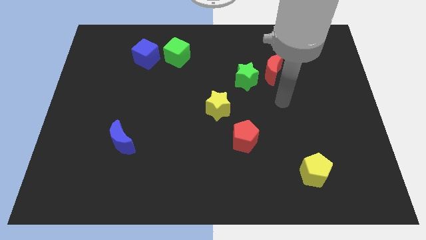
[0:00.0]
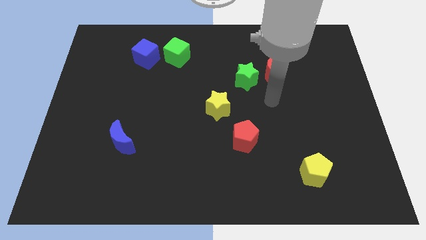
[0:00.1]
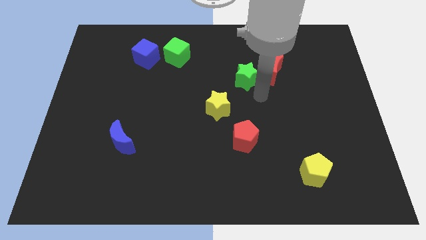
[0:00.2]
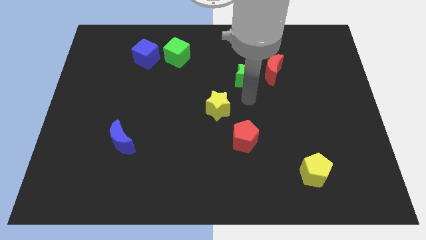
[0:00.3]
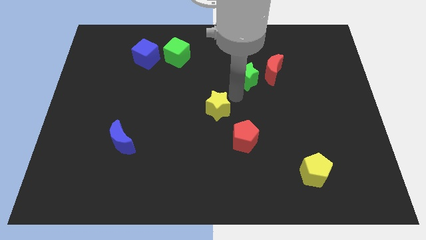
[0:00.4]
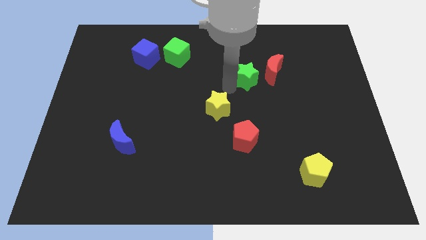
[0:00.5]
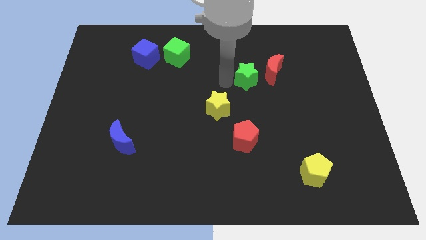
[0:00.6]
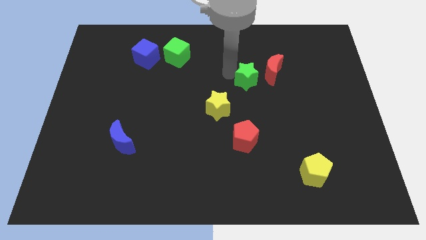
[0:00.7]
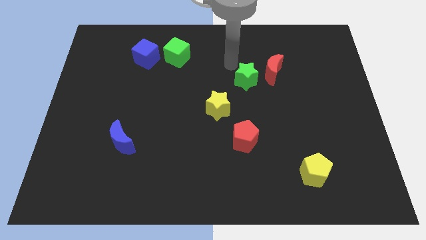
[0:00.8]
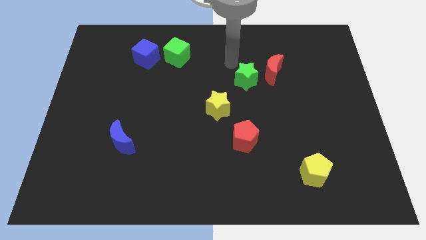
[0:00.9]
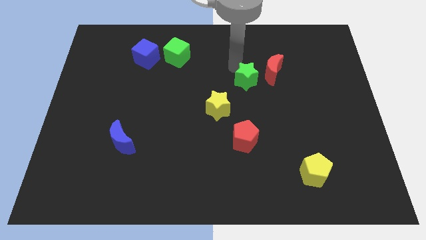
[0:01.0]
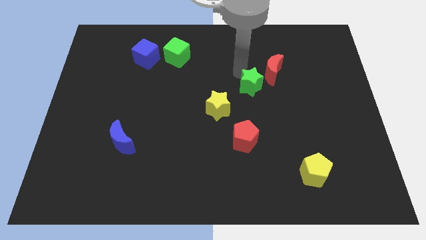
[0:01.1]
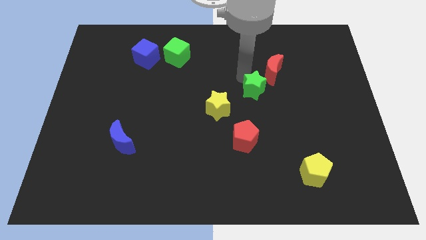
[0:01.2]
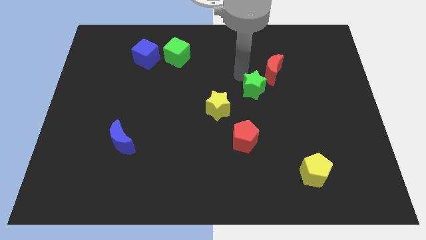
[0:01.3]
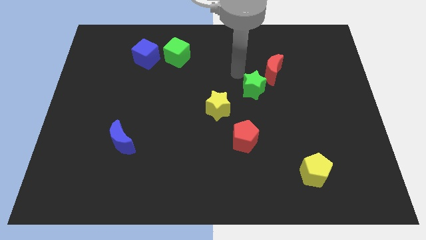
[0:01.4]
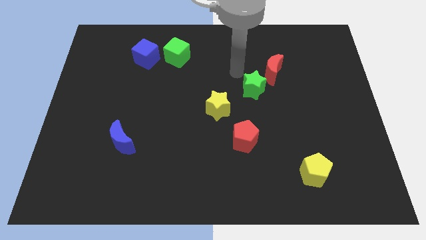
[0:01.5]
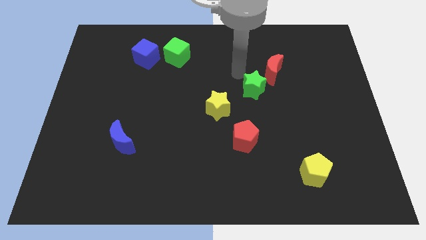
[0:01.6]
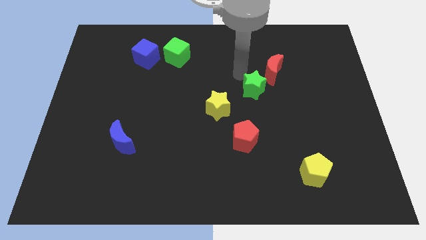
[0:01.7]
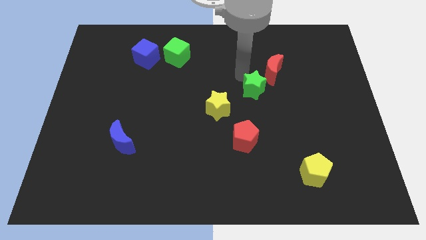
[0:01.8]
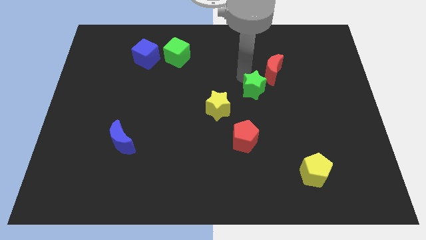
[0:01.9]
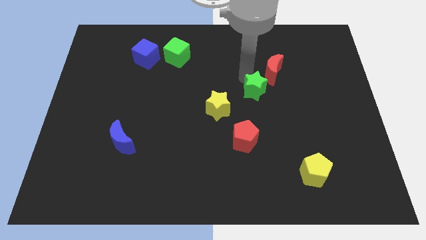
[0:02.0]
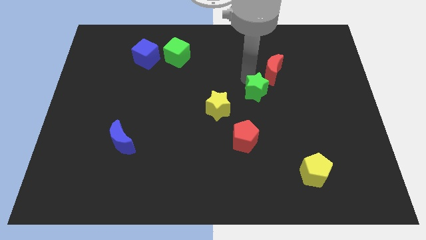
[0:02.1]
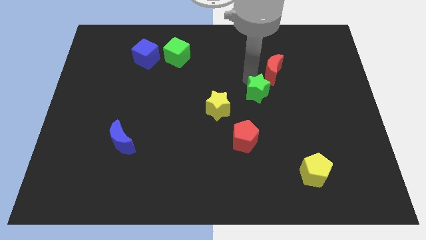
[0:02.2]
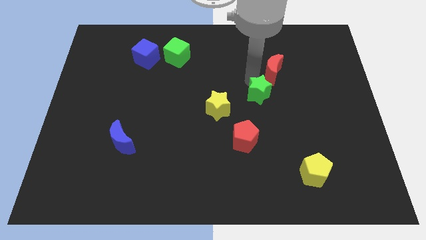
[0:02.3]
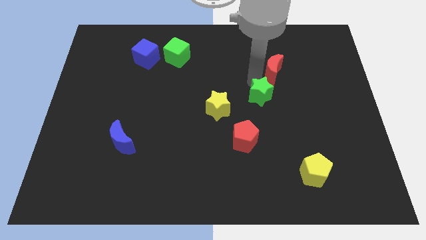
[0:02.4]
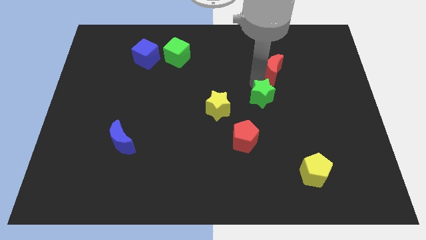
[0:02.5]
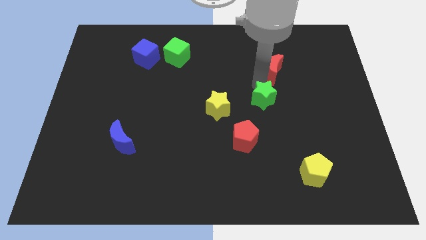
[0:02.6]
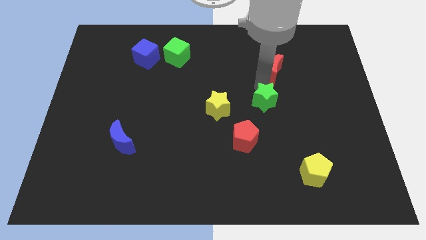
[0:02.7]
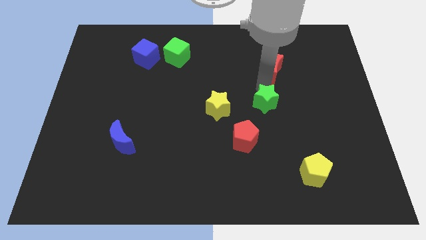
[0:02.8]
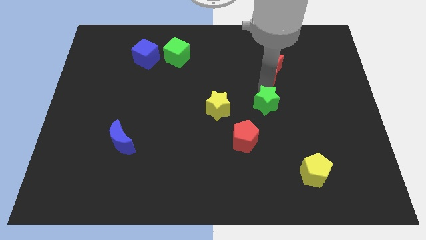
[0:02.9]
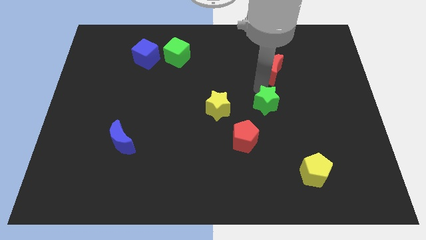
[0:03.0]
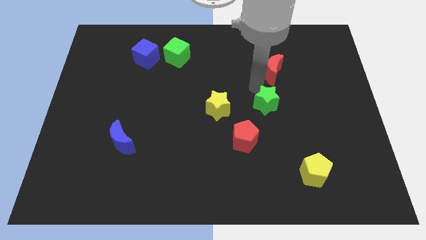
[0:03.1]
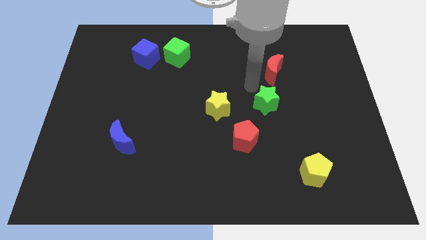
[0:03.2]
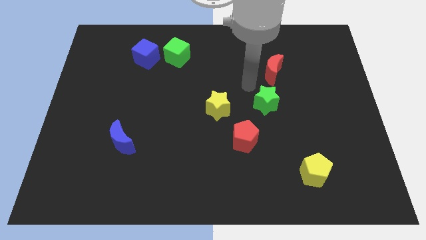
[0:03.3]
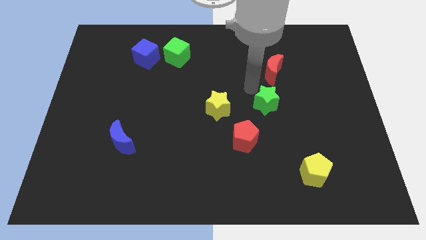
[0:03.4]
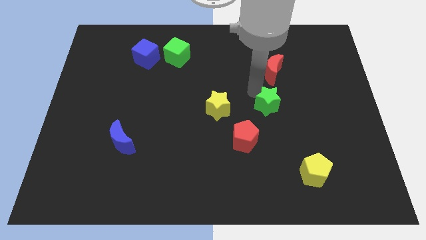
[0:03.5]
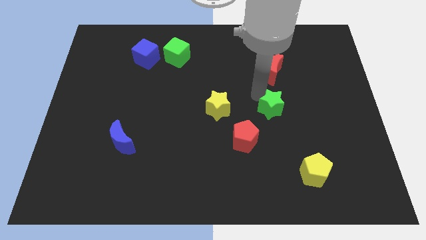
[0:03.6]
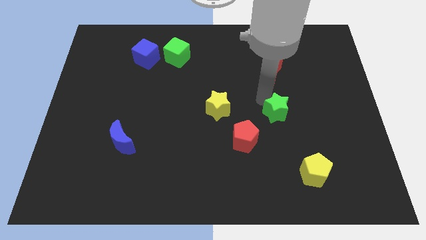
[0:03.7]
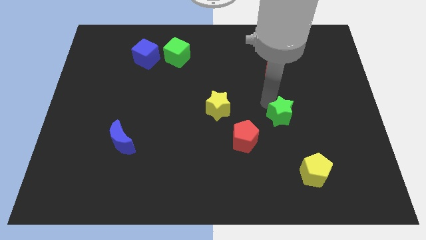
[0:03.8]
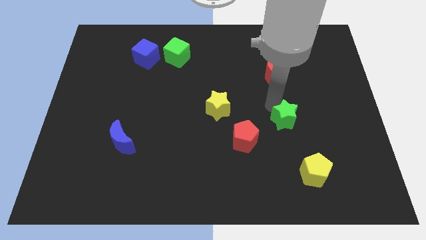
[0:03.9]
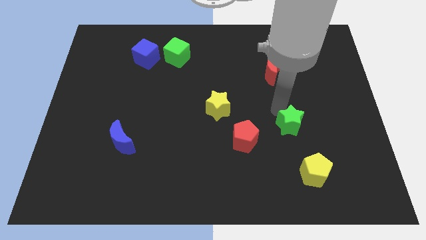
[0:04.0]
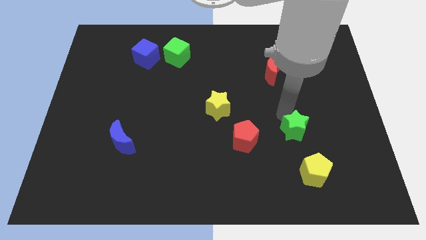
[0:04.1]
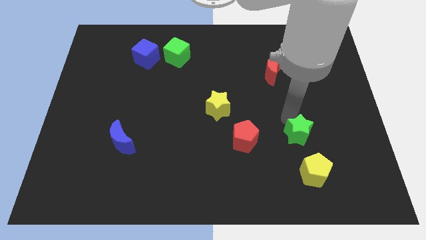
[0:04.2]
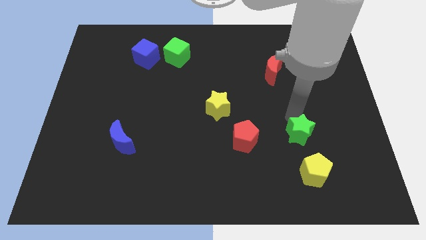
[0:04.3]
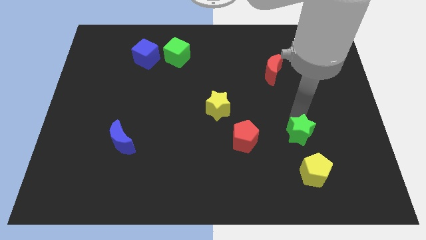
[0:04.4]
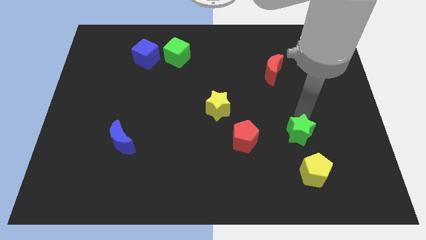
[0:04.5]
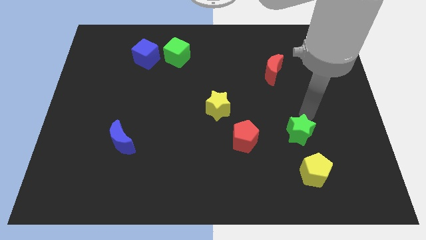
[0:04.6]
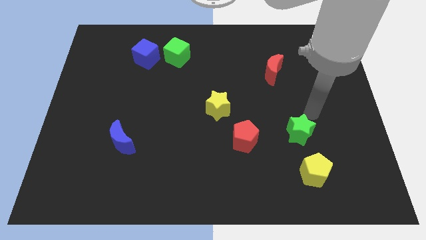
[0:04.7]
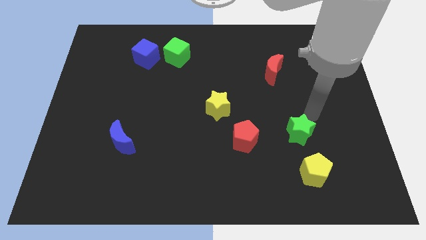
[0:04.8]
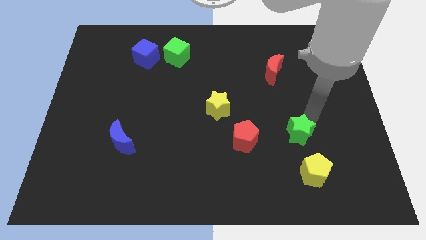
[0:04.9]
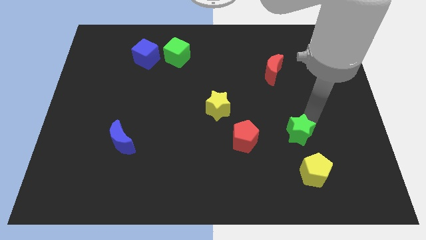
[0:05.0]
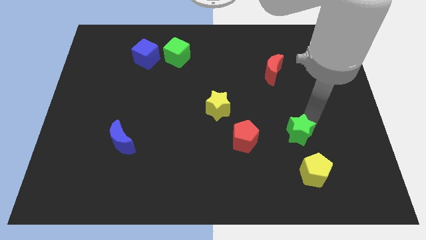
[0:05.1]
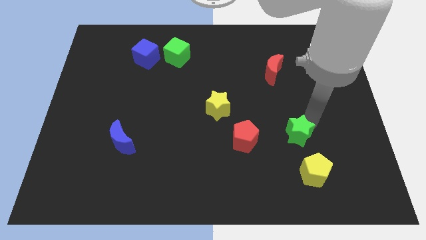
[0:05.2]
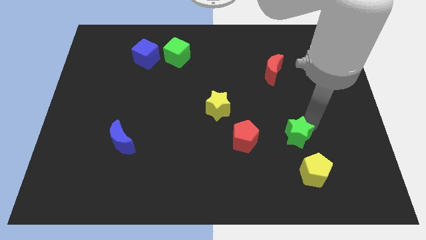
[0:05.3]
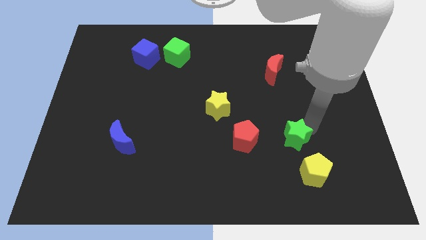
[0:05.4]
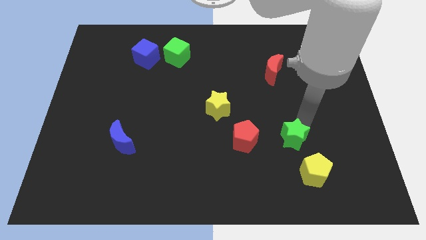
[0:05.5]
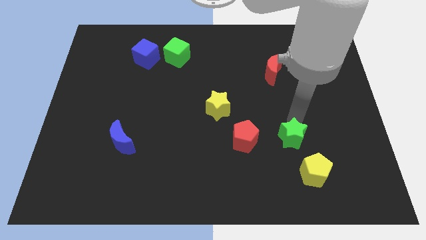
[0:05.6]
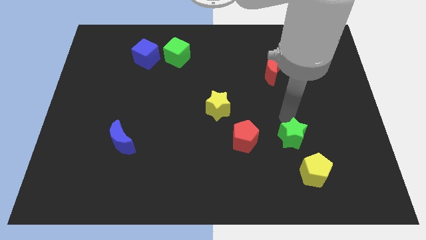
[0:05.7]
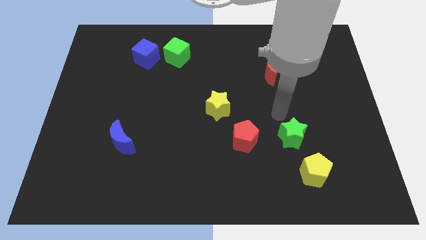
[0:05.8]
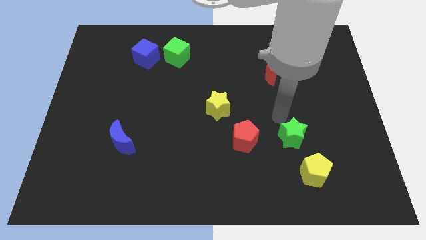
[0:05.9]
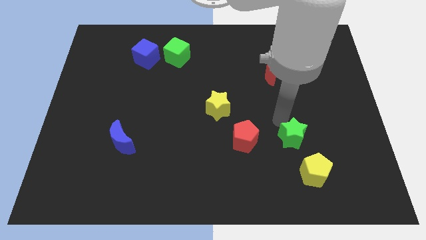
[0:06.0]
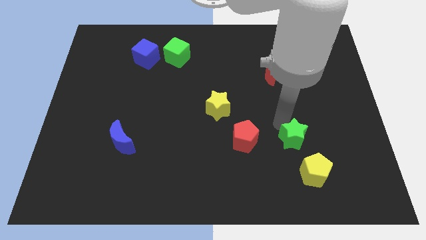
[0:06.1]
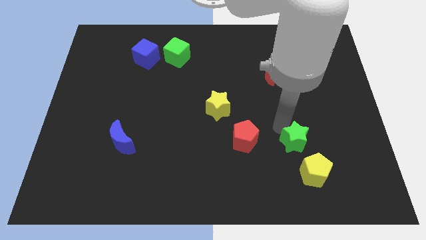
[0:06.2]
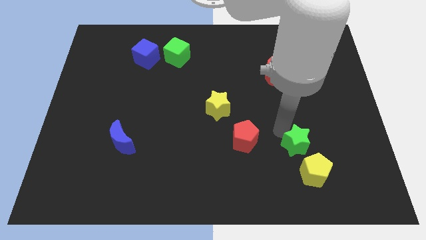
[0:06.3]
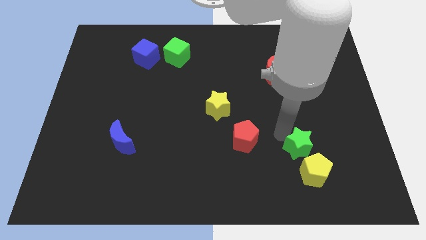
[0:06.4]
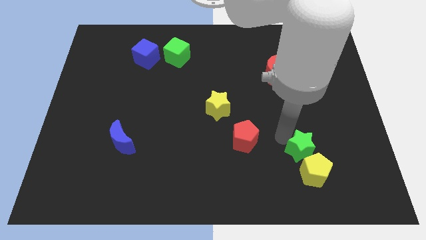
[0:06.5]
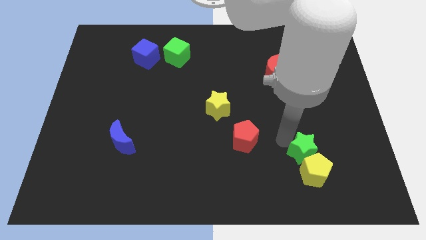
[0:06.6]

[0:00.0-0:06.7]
push the green star towards the yellow pentagon
